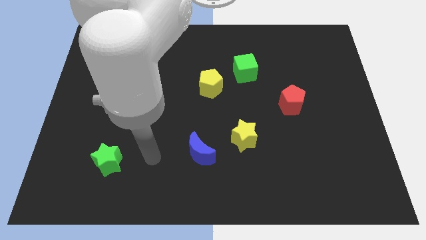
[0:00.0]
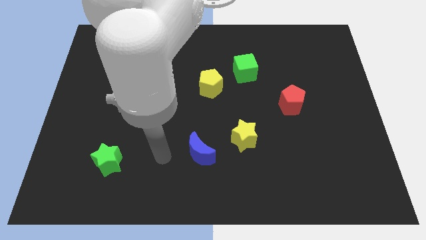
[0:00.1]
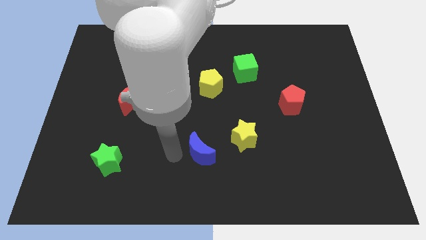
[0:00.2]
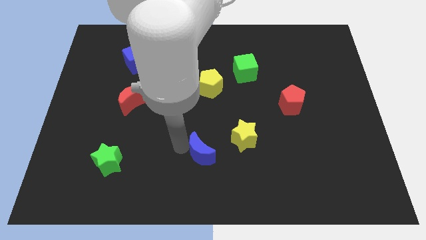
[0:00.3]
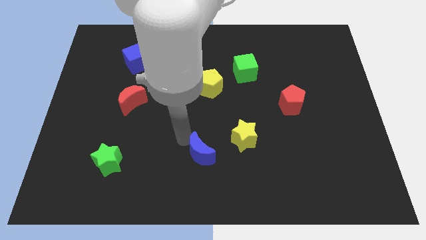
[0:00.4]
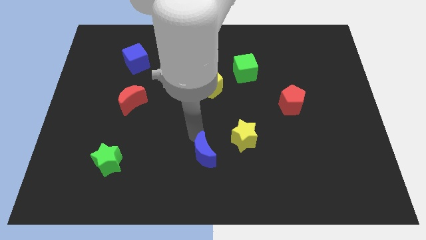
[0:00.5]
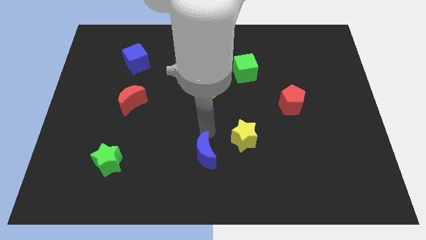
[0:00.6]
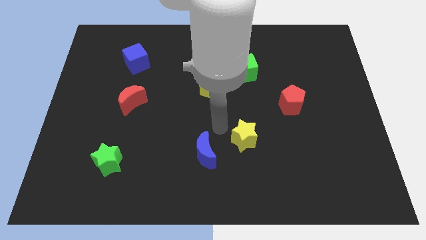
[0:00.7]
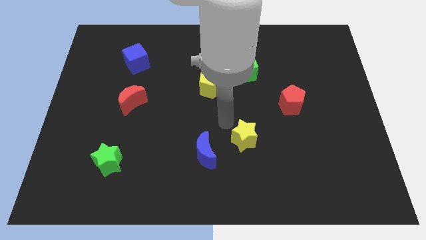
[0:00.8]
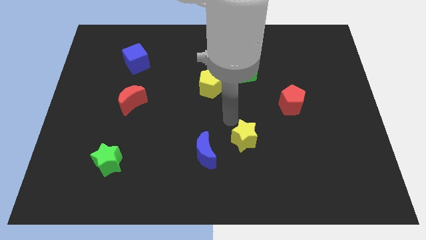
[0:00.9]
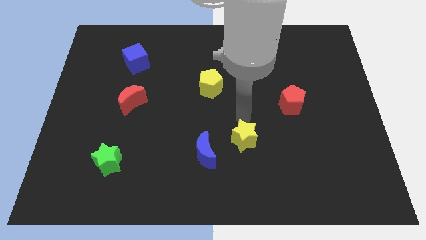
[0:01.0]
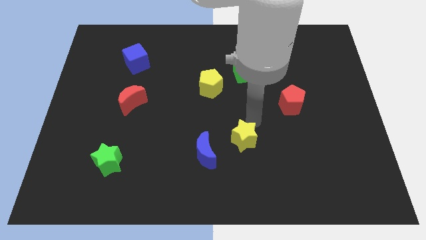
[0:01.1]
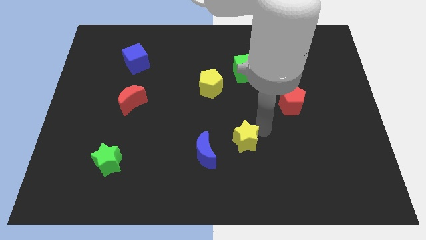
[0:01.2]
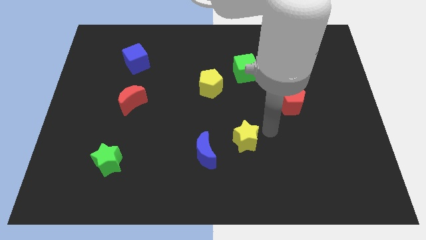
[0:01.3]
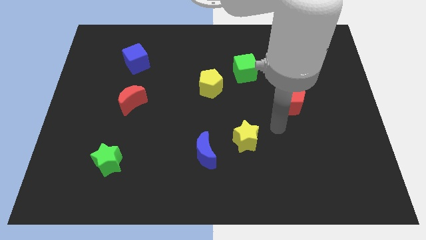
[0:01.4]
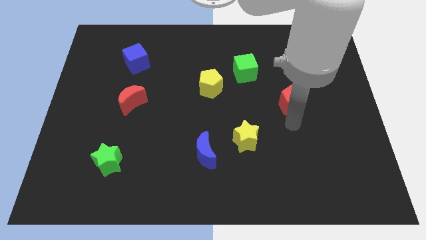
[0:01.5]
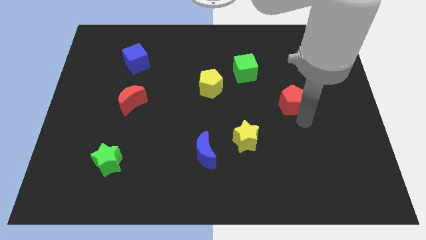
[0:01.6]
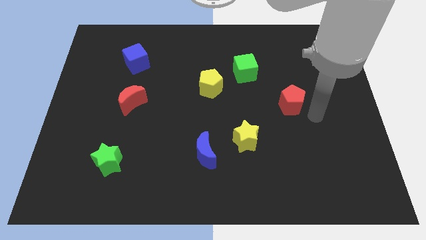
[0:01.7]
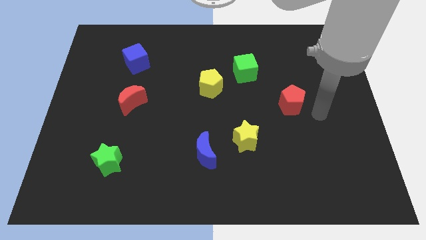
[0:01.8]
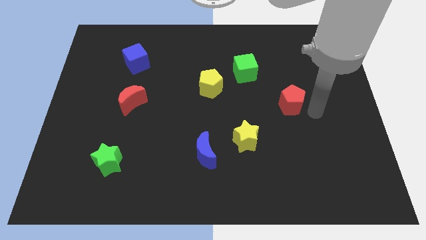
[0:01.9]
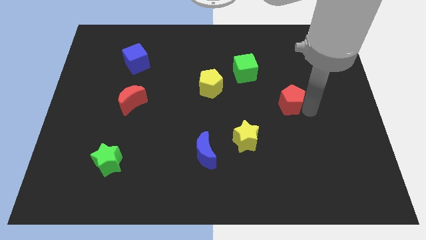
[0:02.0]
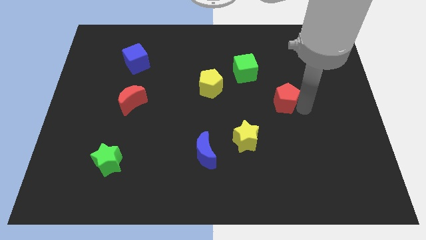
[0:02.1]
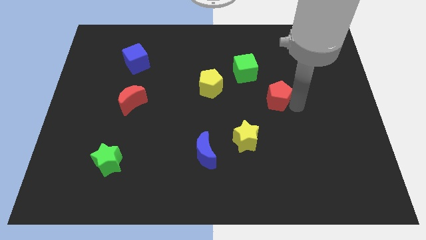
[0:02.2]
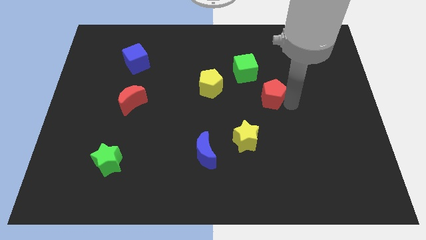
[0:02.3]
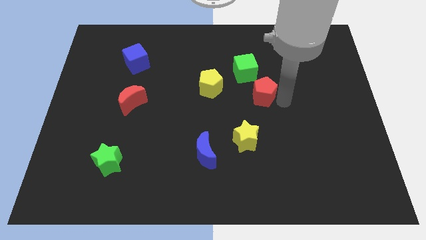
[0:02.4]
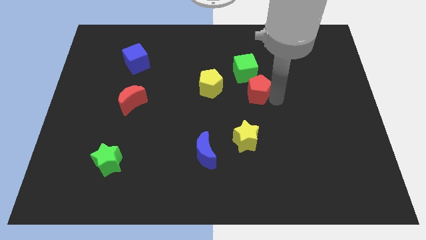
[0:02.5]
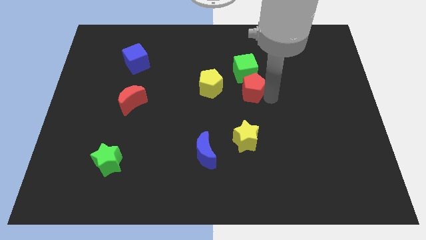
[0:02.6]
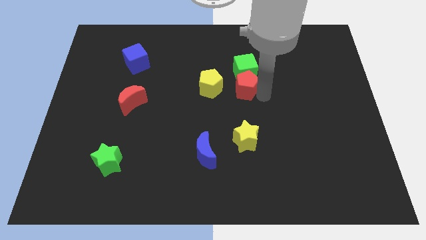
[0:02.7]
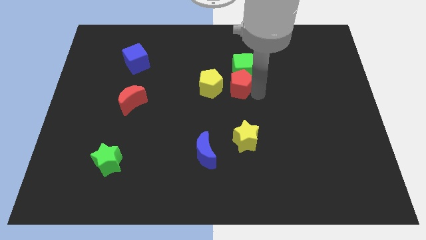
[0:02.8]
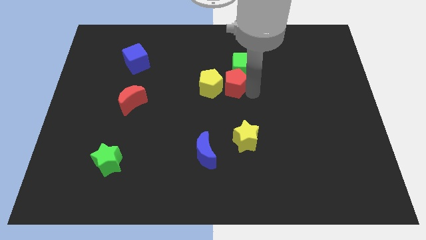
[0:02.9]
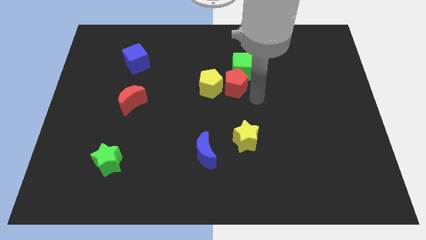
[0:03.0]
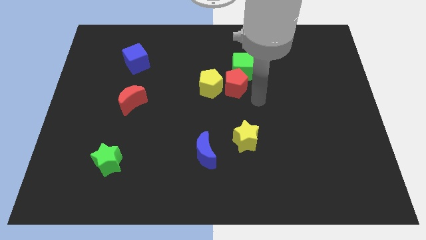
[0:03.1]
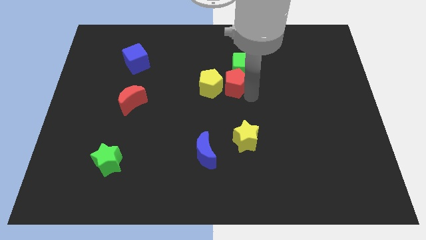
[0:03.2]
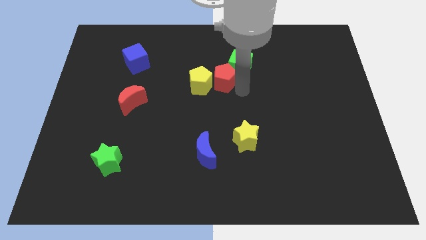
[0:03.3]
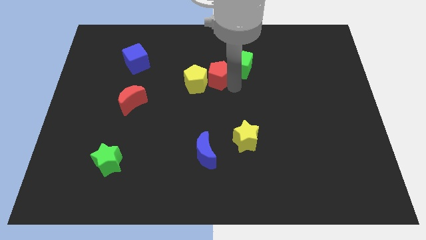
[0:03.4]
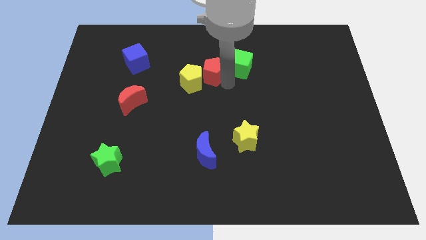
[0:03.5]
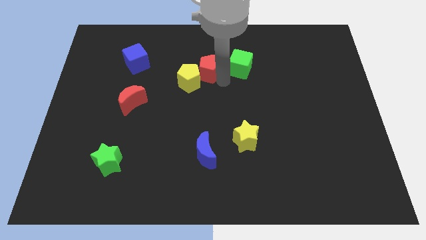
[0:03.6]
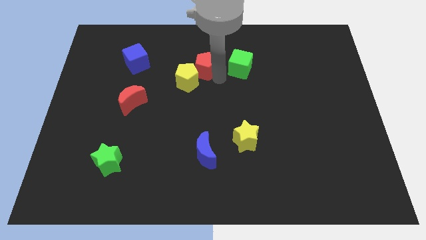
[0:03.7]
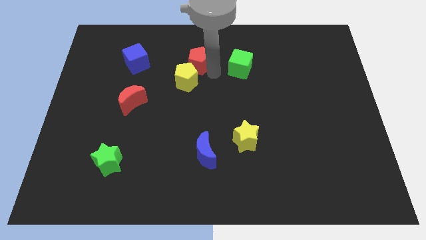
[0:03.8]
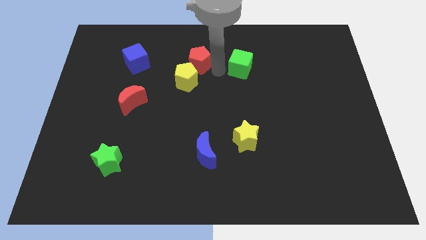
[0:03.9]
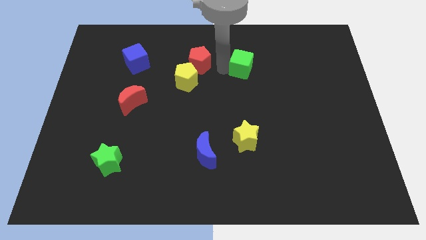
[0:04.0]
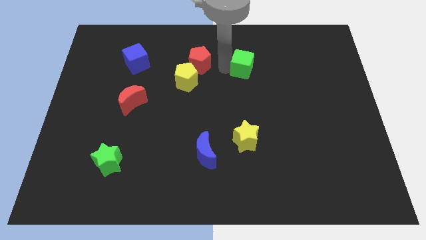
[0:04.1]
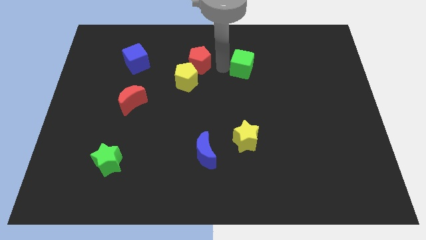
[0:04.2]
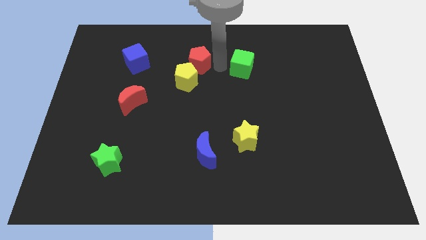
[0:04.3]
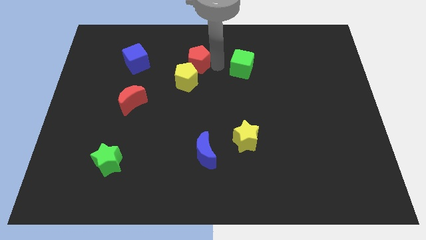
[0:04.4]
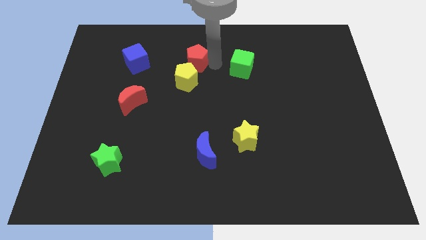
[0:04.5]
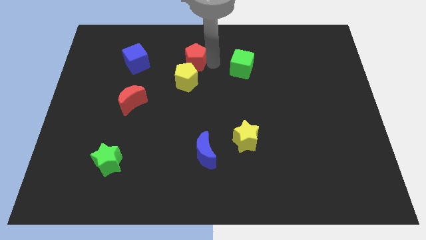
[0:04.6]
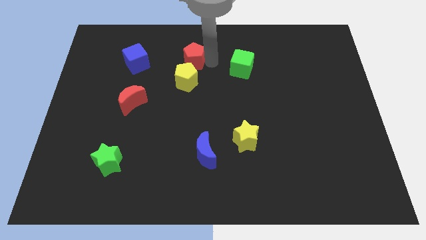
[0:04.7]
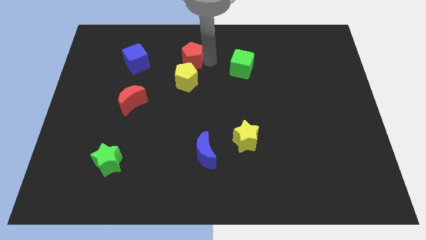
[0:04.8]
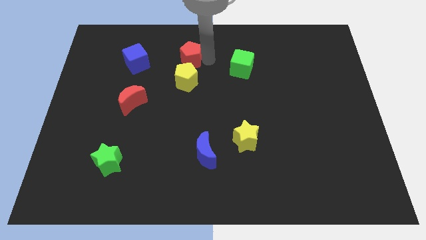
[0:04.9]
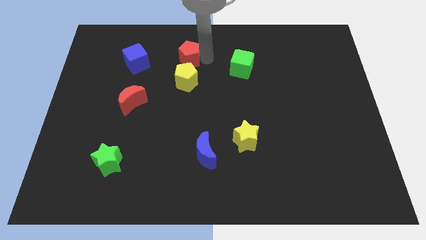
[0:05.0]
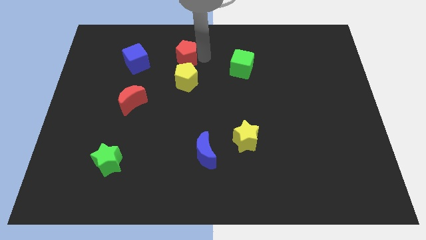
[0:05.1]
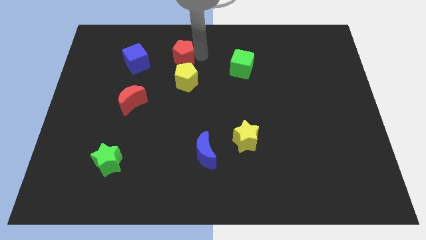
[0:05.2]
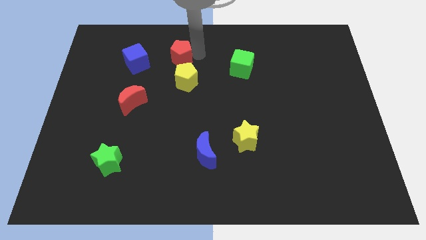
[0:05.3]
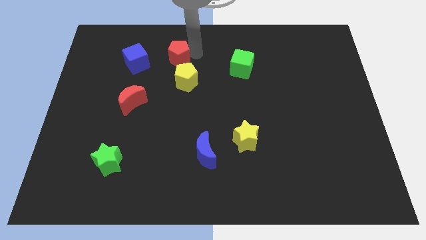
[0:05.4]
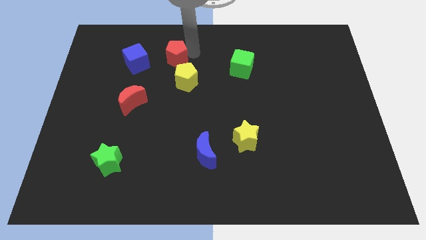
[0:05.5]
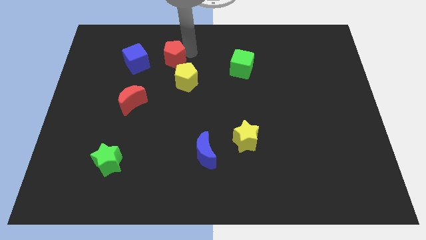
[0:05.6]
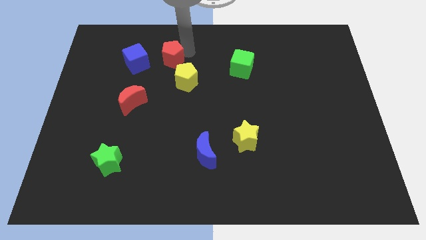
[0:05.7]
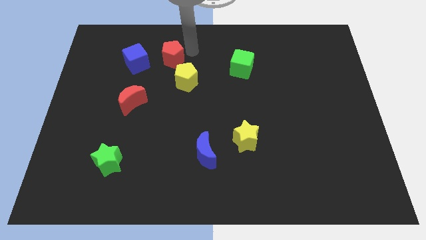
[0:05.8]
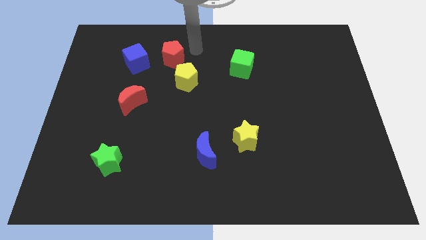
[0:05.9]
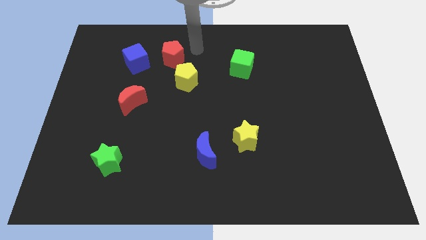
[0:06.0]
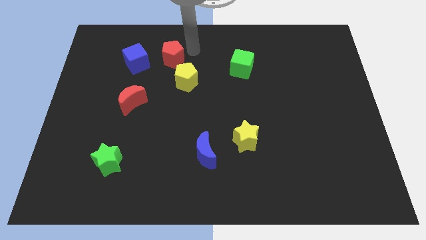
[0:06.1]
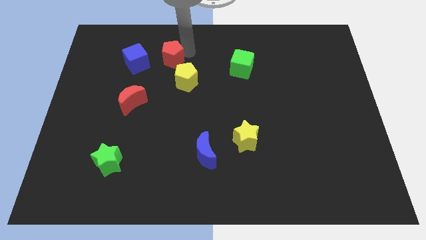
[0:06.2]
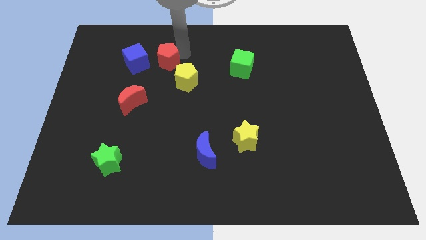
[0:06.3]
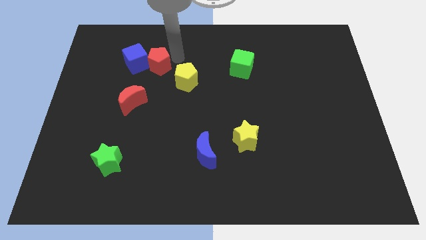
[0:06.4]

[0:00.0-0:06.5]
push the red pentagon to the blue cube

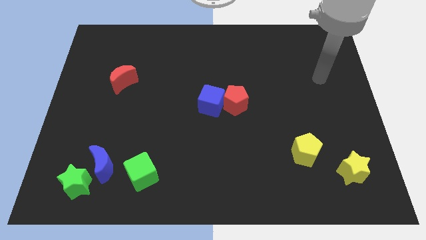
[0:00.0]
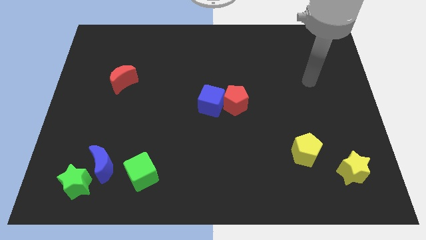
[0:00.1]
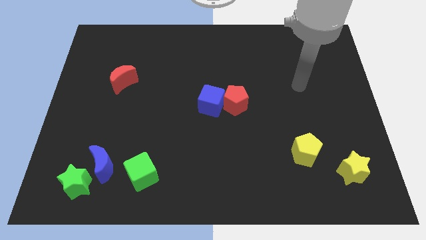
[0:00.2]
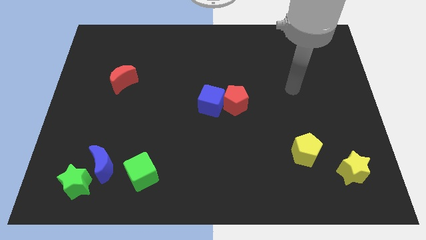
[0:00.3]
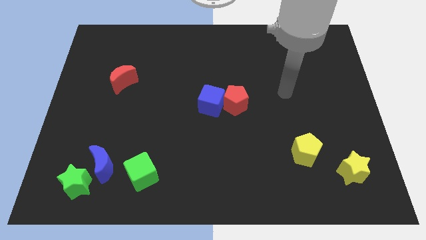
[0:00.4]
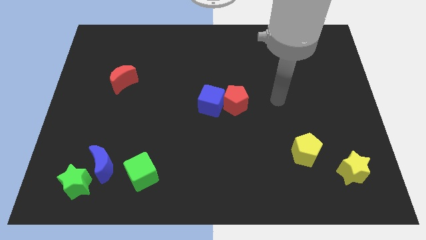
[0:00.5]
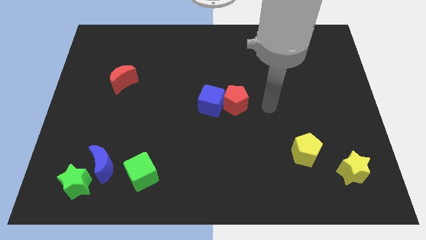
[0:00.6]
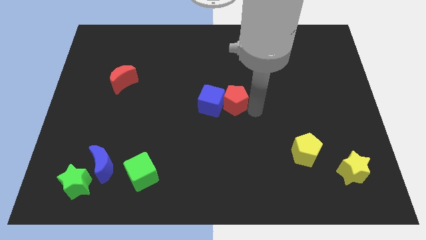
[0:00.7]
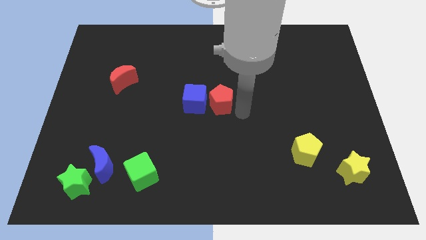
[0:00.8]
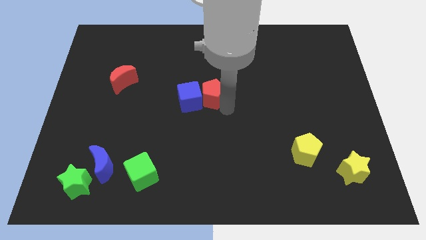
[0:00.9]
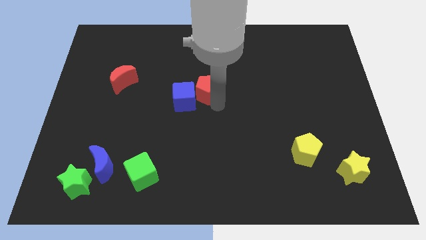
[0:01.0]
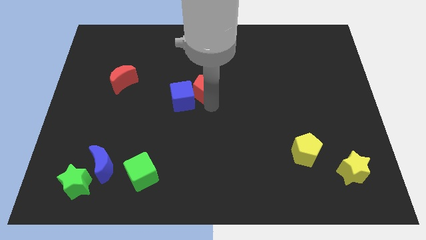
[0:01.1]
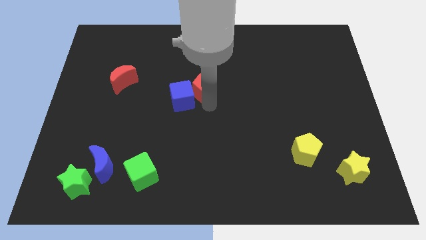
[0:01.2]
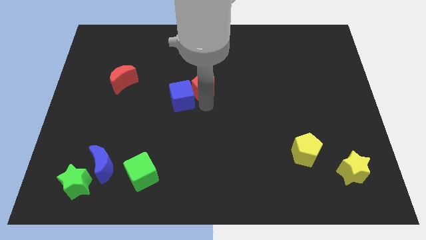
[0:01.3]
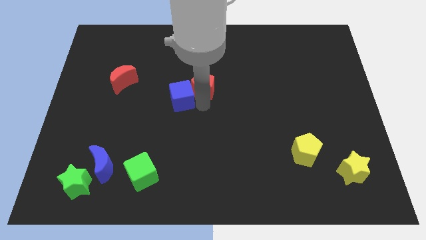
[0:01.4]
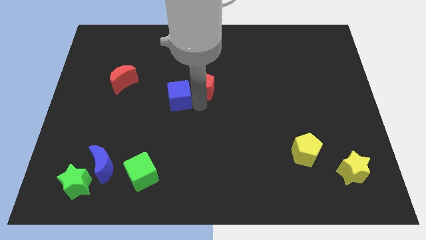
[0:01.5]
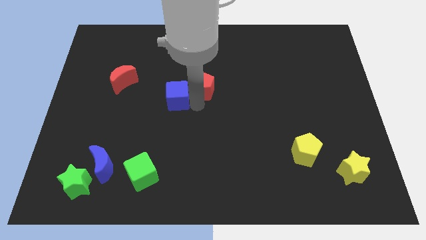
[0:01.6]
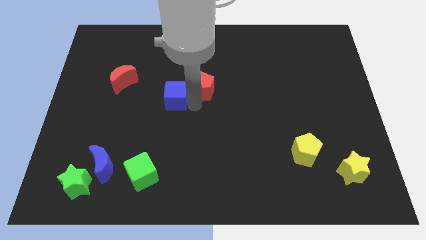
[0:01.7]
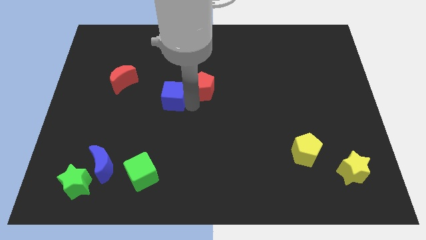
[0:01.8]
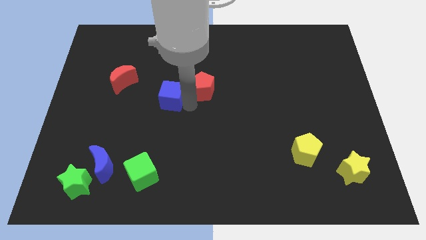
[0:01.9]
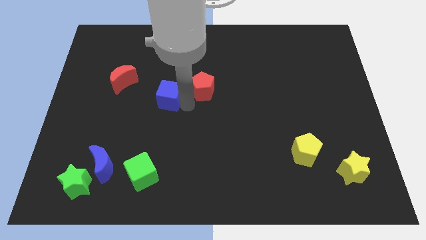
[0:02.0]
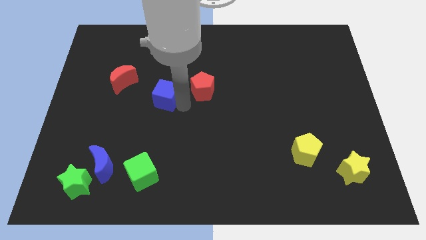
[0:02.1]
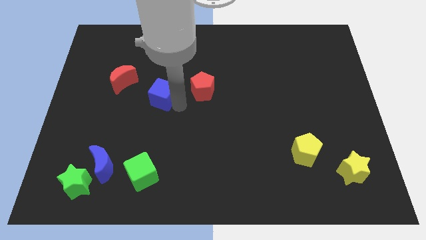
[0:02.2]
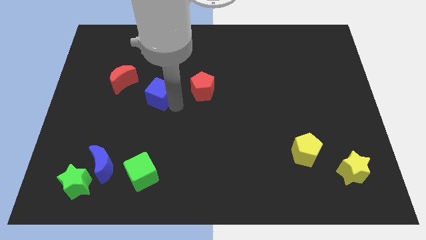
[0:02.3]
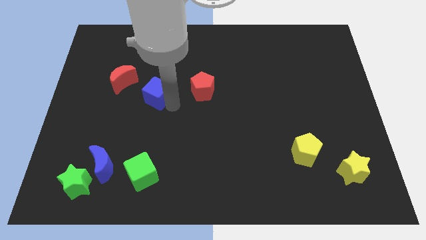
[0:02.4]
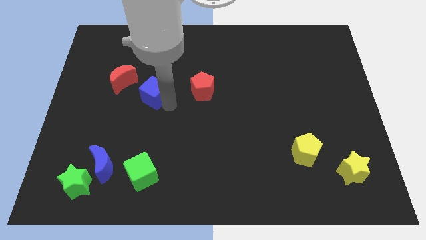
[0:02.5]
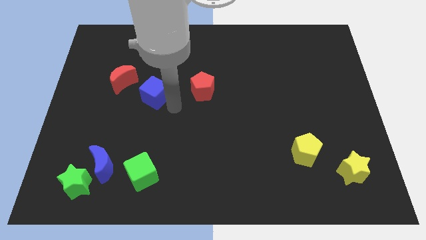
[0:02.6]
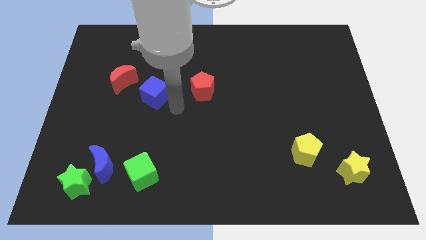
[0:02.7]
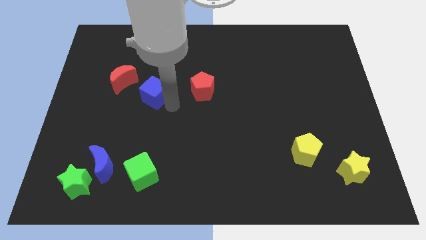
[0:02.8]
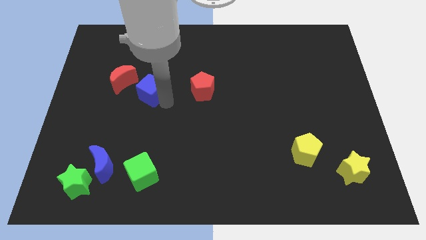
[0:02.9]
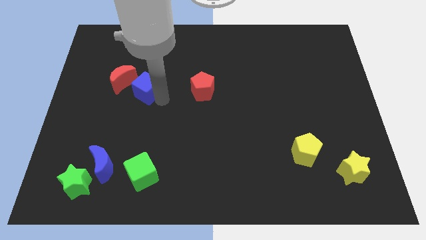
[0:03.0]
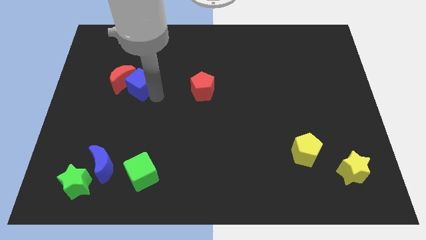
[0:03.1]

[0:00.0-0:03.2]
slide the blue cube to the red moon
